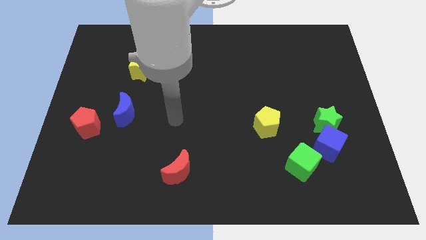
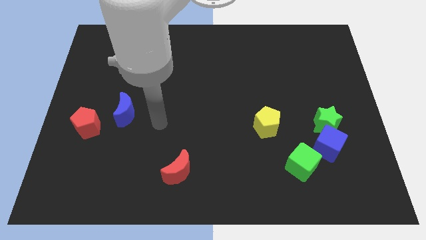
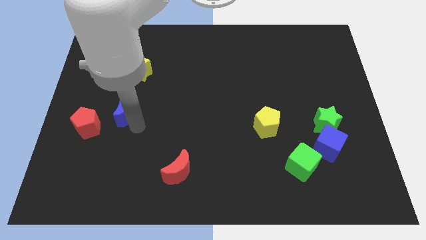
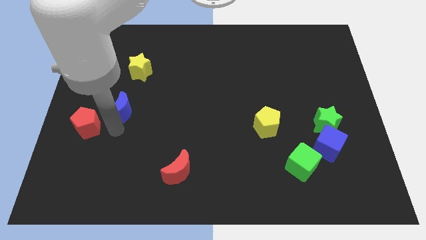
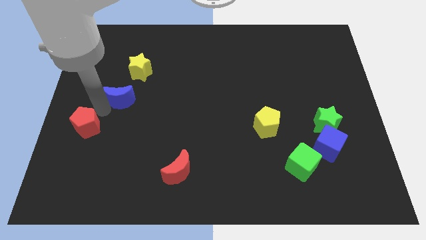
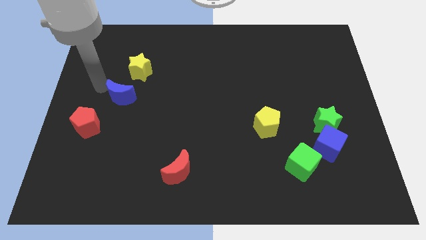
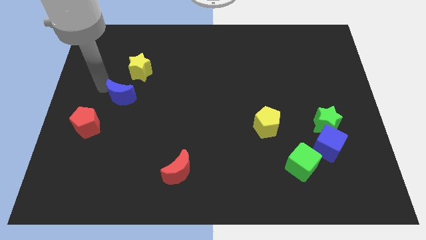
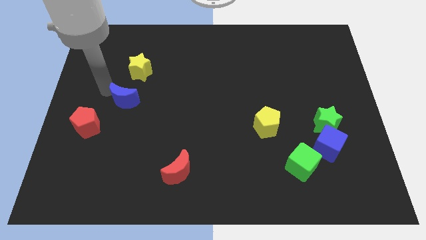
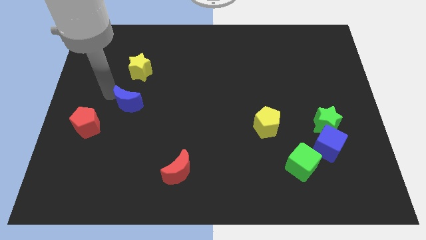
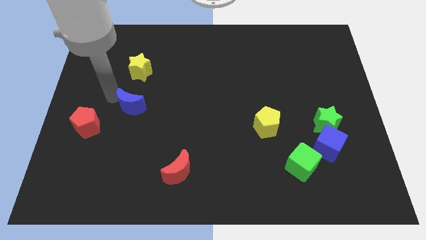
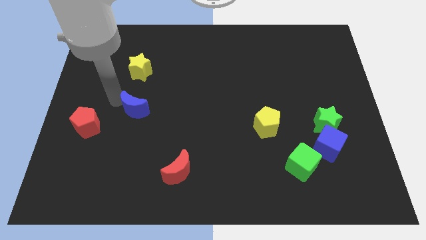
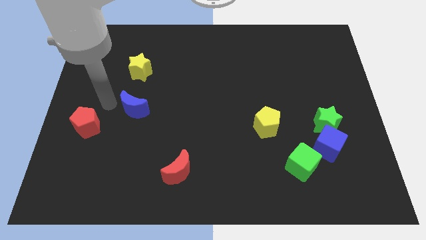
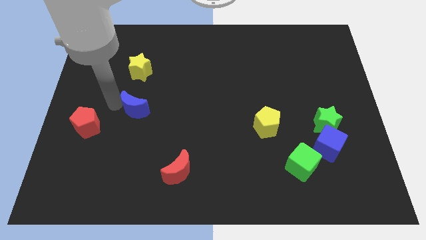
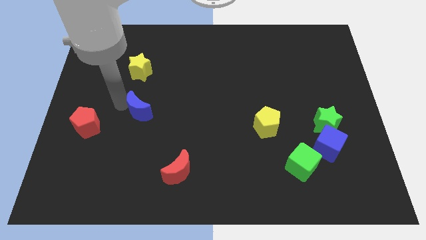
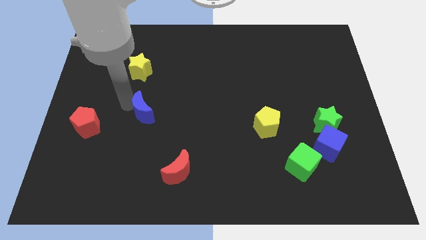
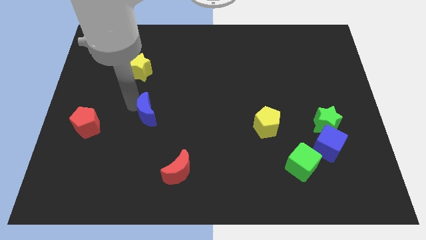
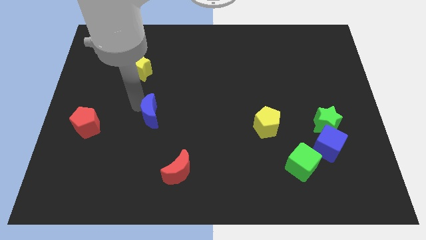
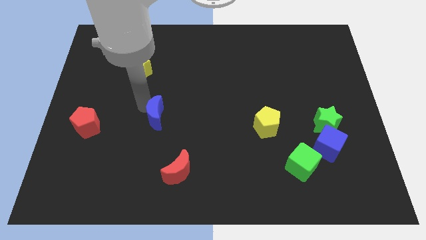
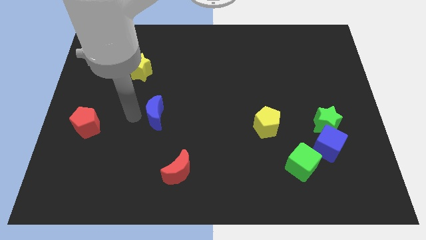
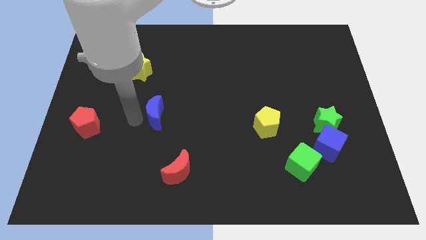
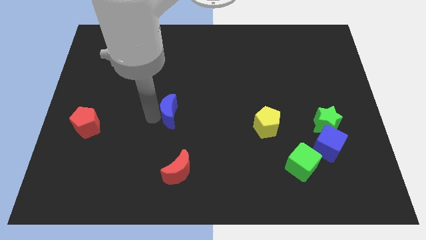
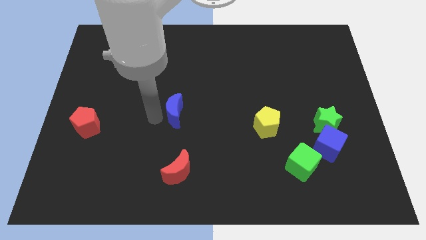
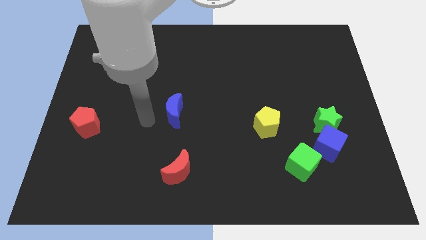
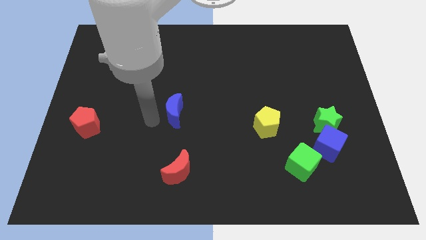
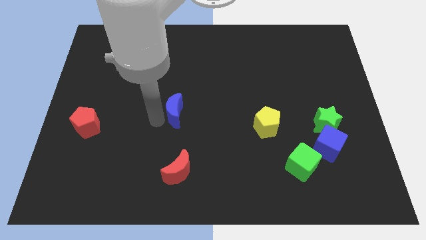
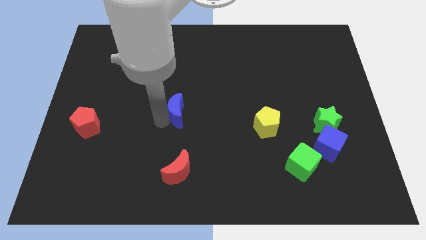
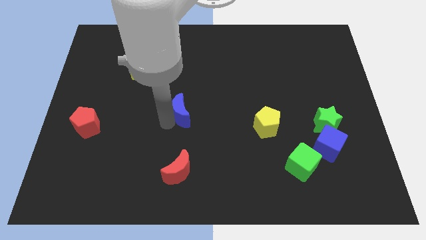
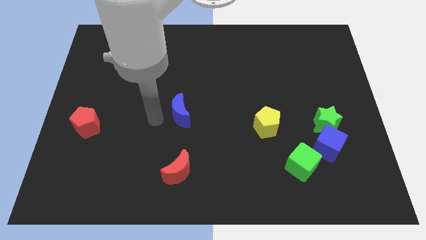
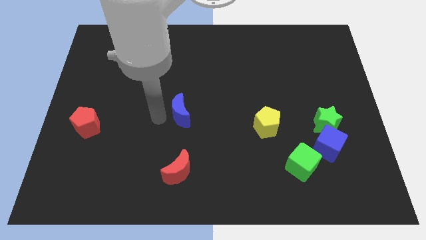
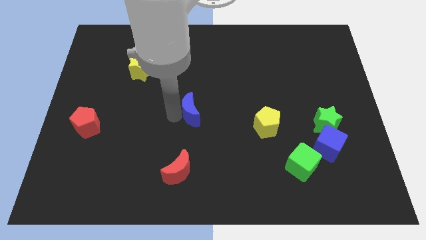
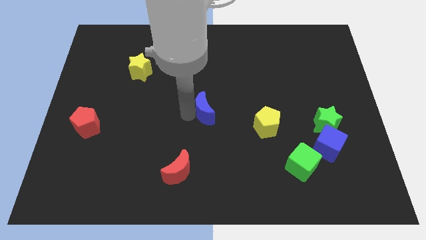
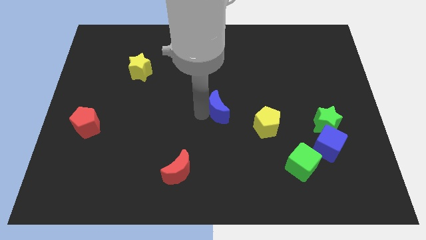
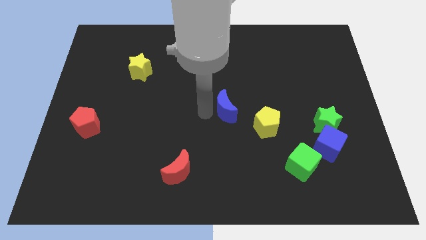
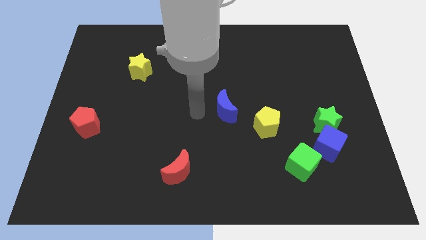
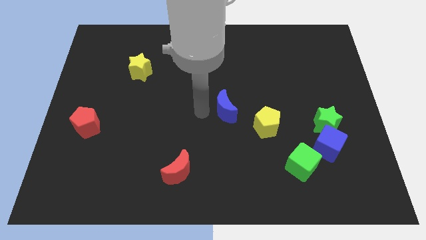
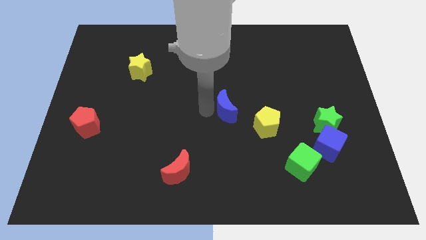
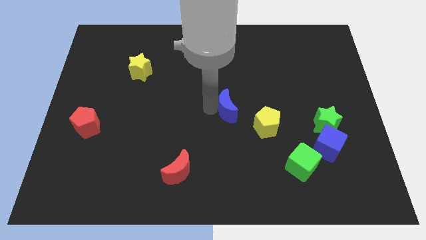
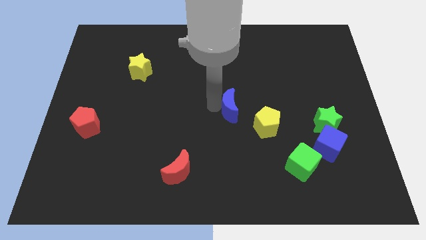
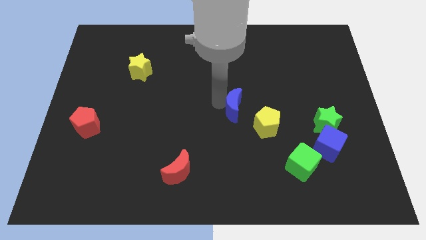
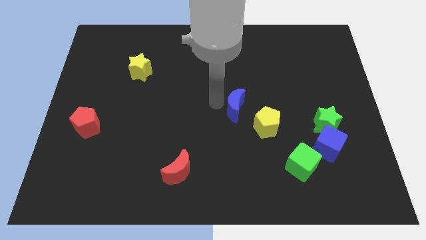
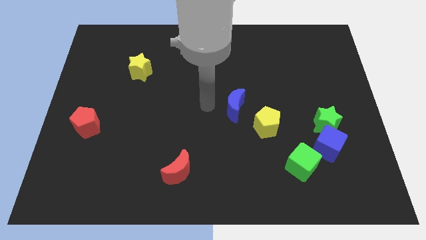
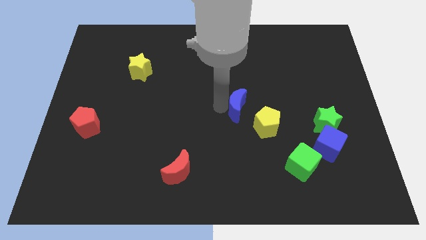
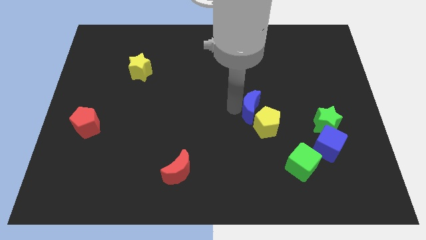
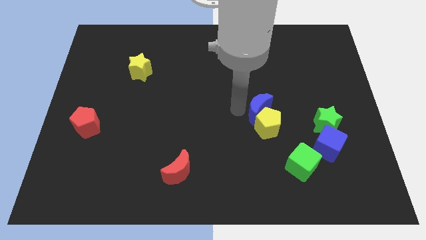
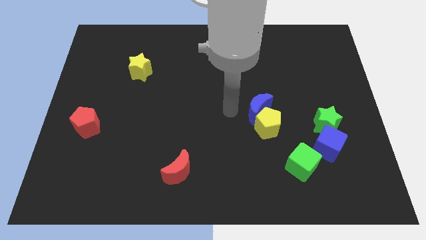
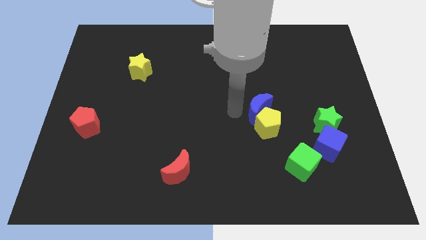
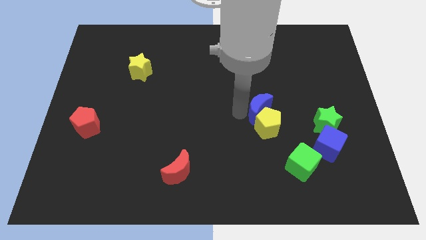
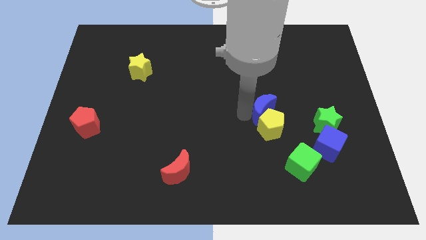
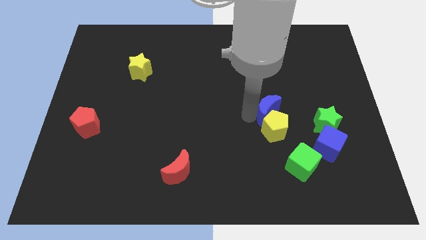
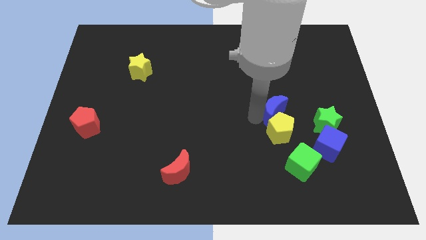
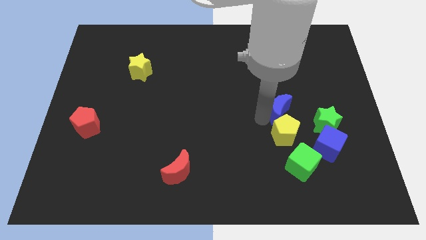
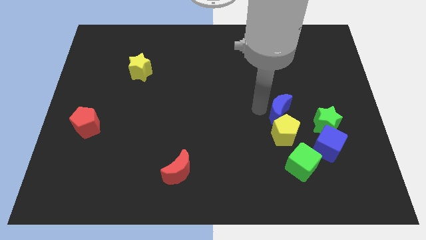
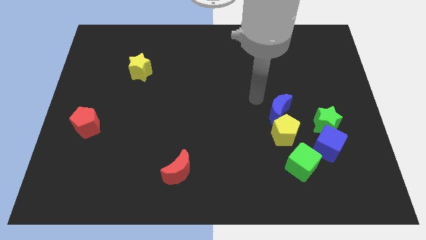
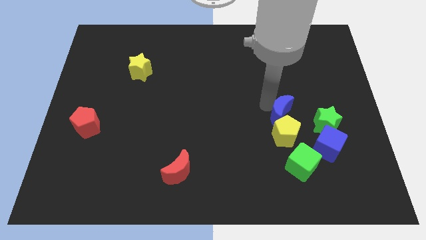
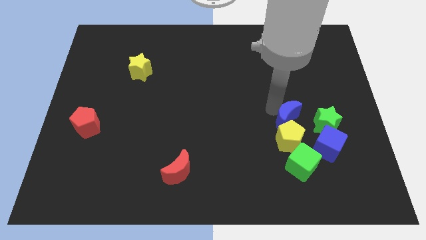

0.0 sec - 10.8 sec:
move the blue moon to the top left of the blue cube

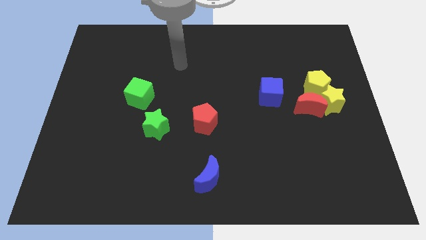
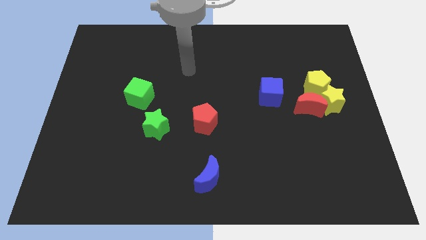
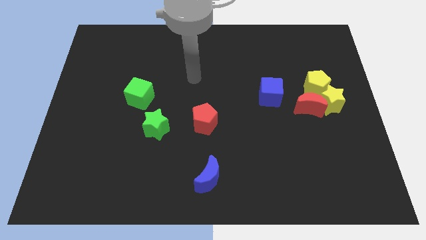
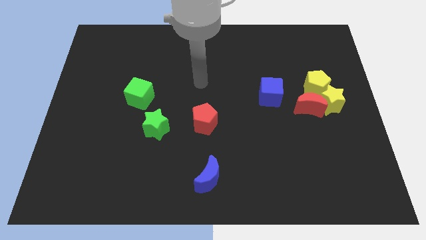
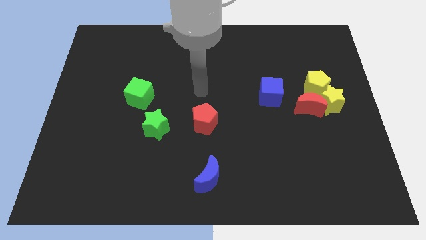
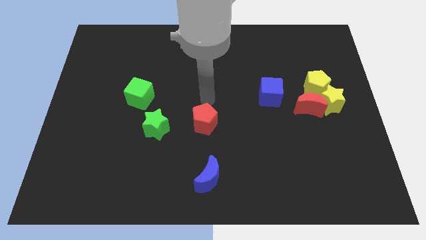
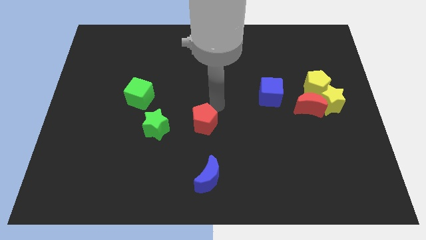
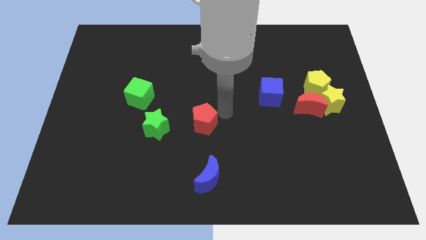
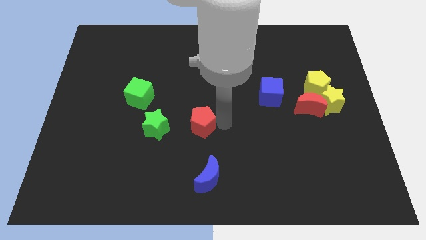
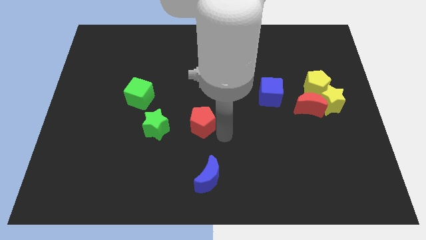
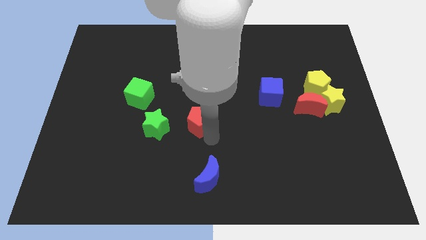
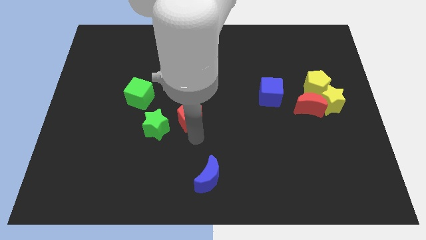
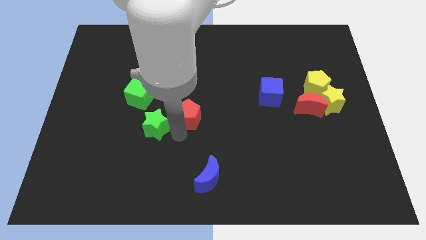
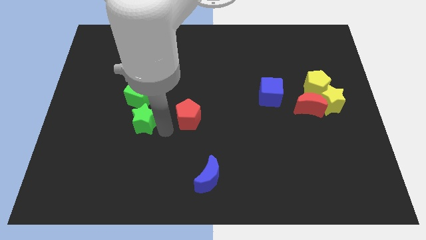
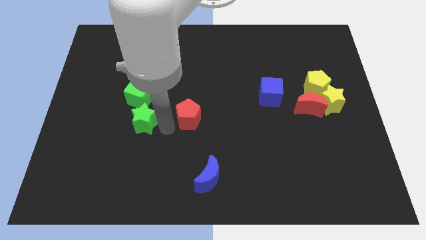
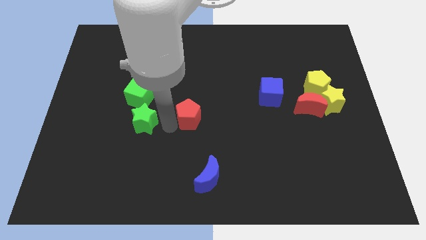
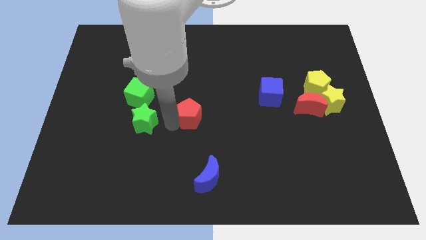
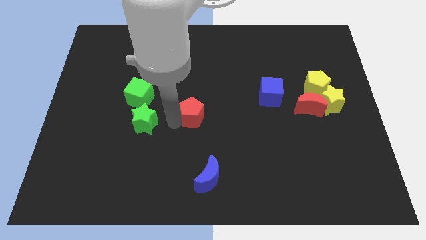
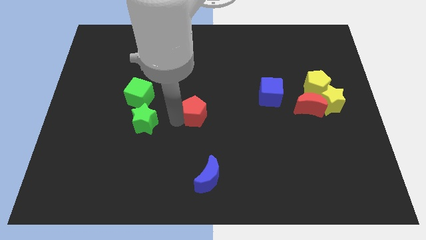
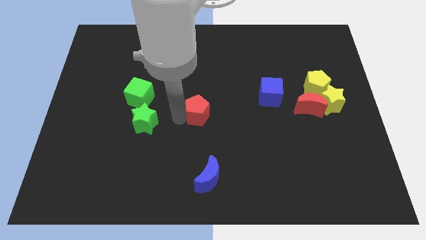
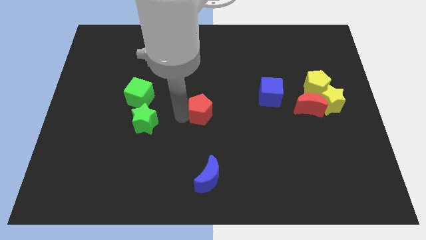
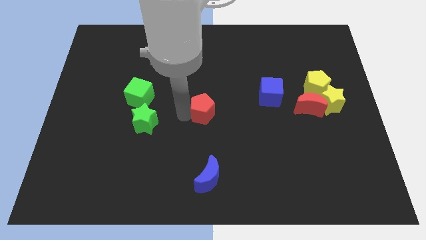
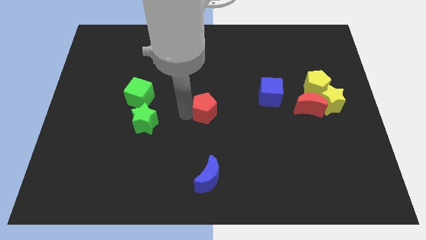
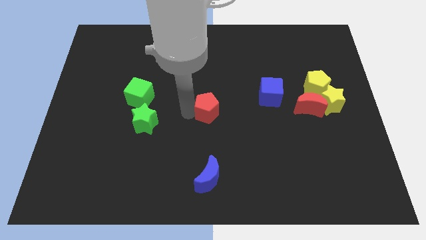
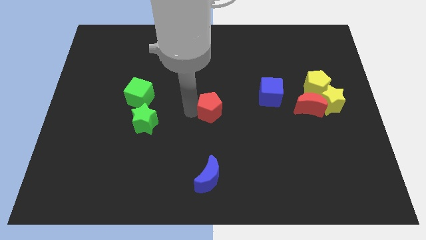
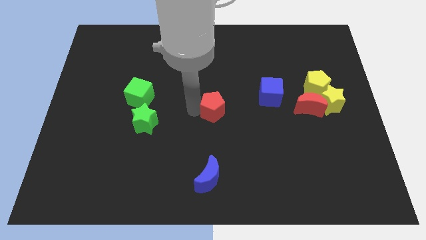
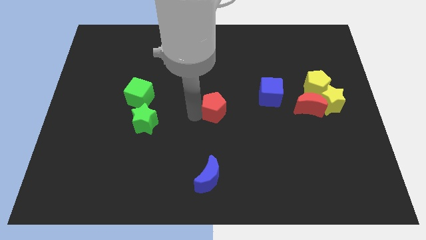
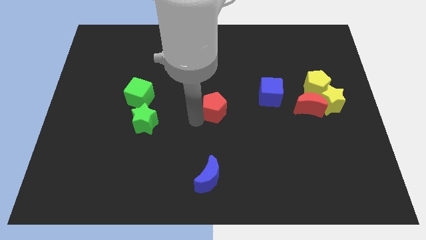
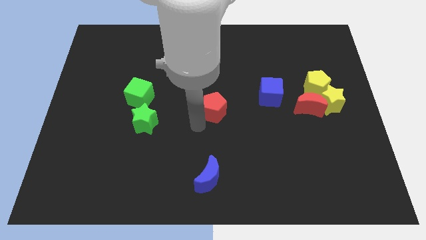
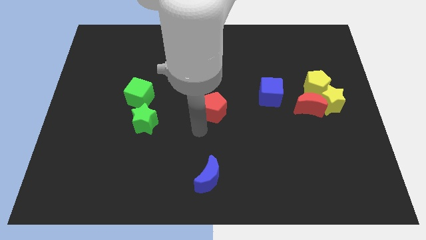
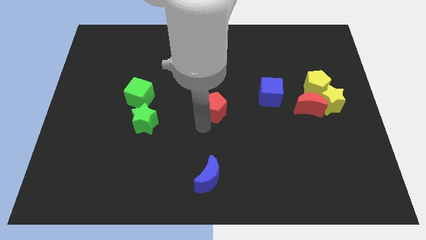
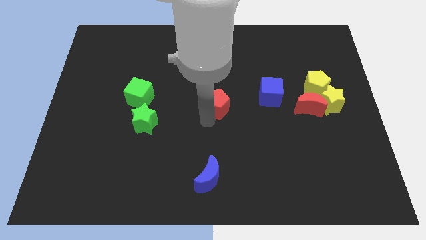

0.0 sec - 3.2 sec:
move the red pentagon to the left of the blue cube
